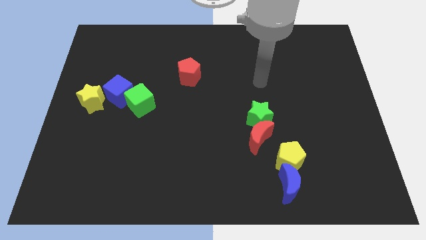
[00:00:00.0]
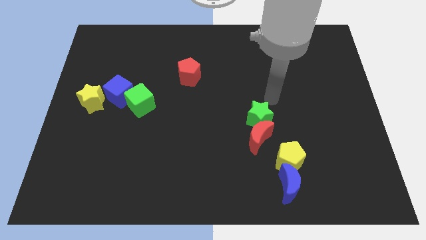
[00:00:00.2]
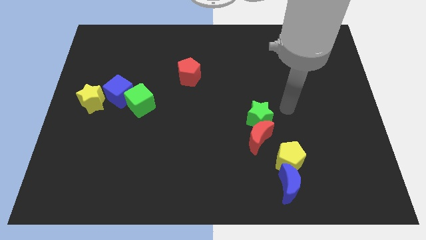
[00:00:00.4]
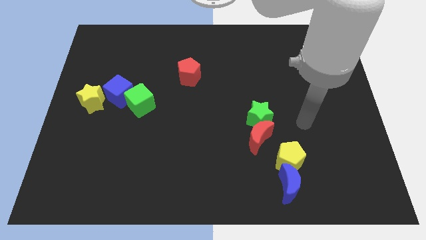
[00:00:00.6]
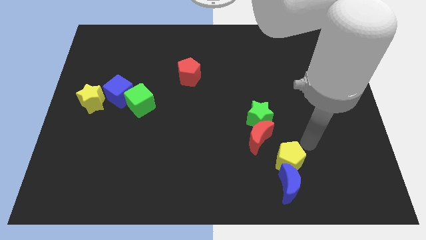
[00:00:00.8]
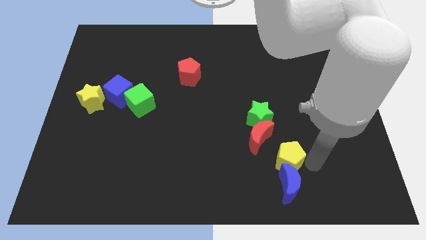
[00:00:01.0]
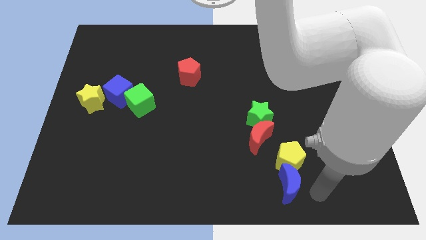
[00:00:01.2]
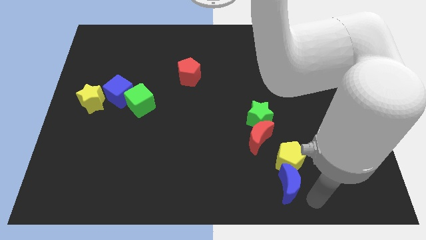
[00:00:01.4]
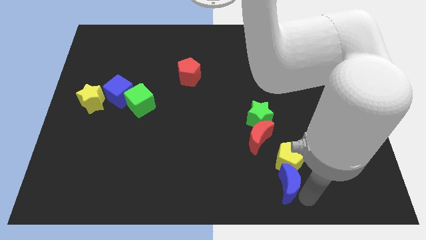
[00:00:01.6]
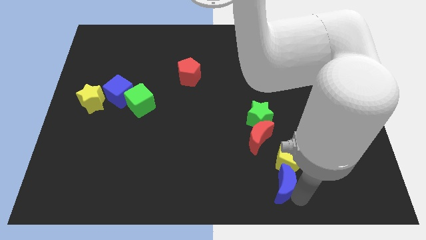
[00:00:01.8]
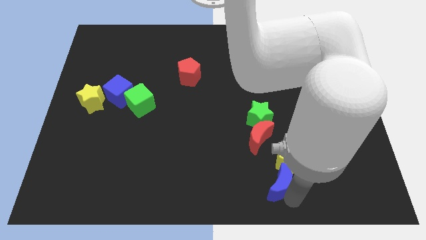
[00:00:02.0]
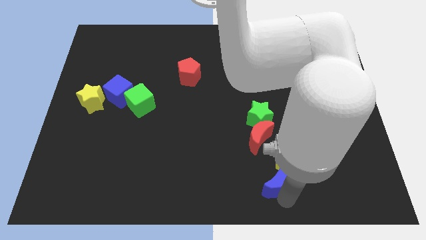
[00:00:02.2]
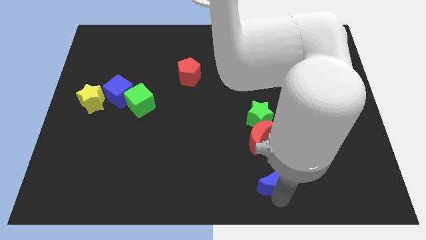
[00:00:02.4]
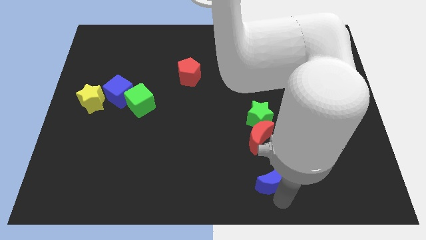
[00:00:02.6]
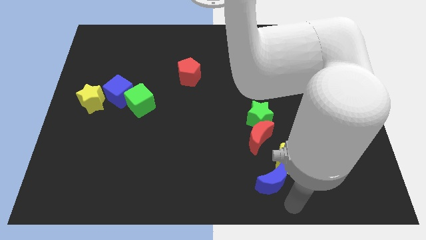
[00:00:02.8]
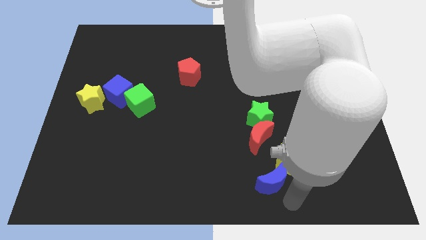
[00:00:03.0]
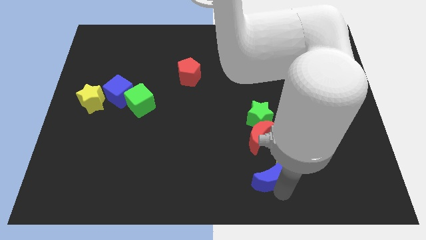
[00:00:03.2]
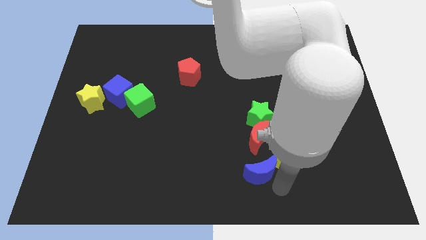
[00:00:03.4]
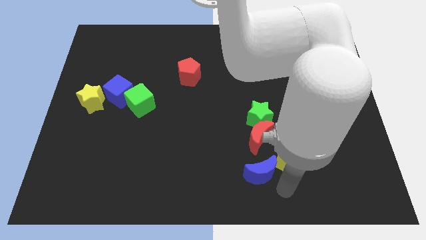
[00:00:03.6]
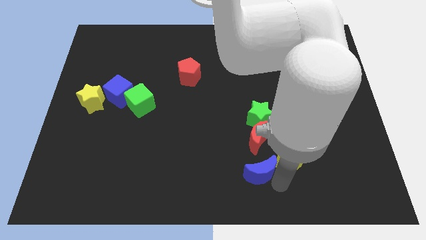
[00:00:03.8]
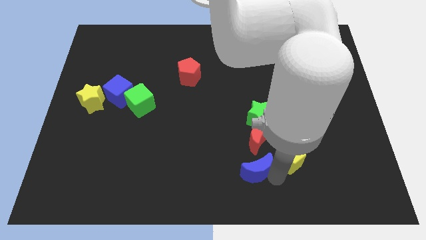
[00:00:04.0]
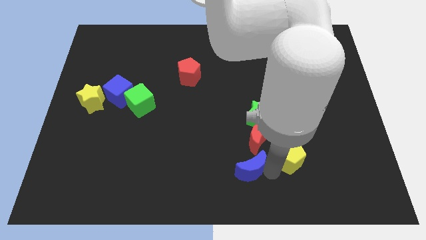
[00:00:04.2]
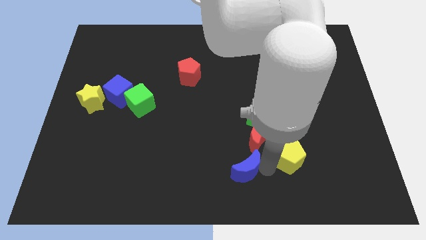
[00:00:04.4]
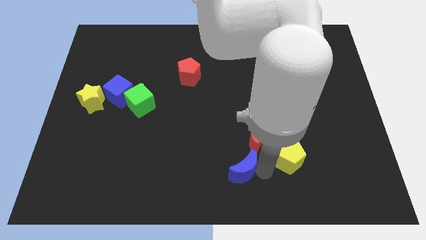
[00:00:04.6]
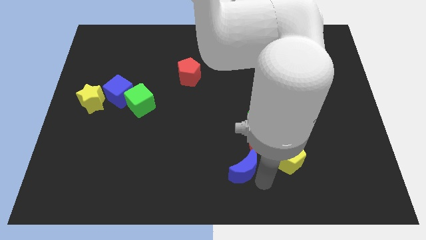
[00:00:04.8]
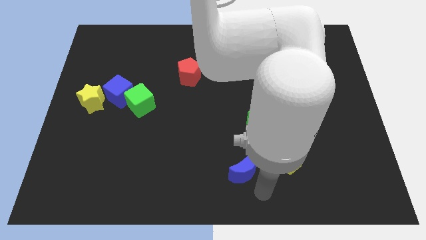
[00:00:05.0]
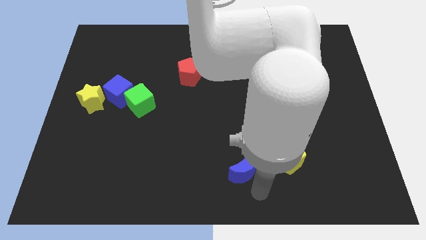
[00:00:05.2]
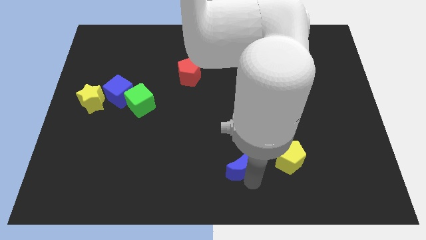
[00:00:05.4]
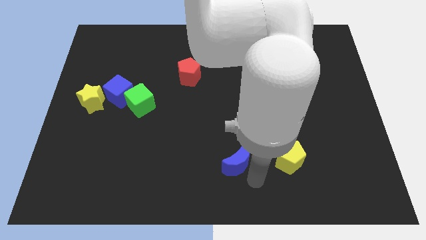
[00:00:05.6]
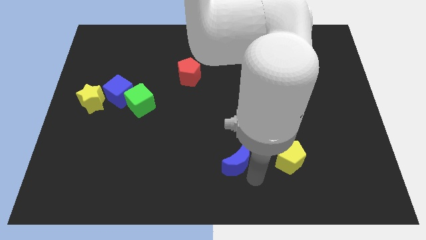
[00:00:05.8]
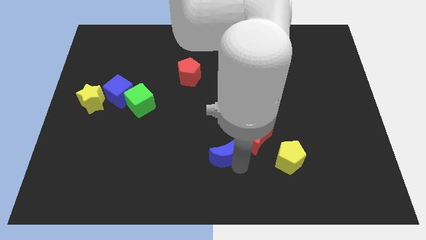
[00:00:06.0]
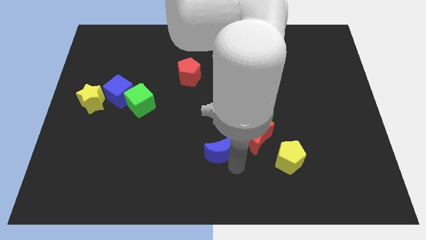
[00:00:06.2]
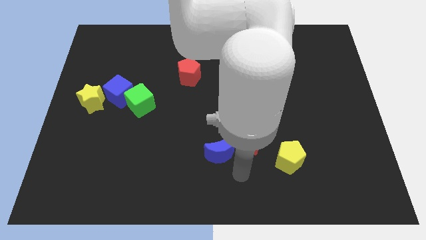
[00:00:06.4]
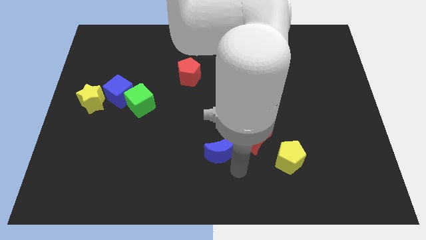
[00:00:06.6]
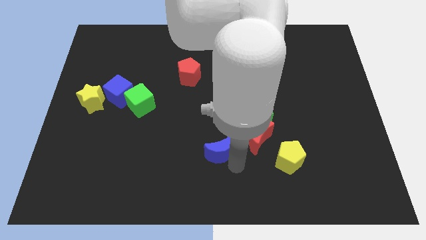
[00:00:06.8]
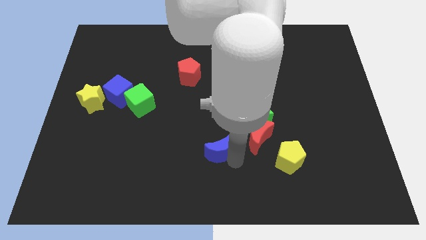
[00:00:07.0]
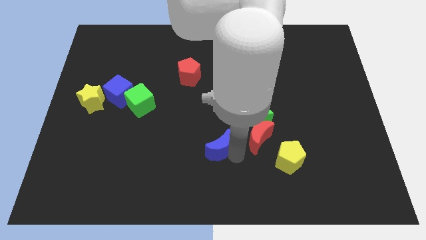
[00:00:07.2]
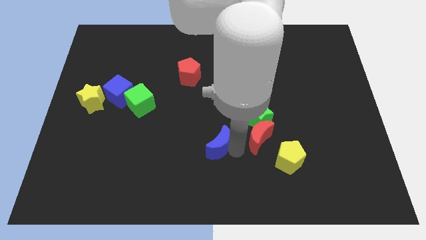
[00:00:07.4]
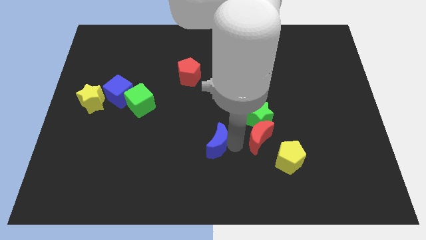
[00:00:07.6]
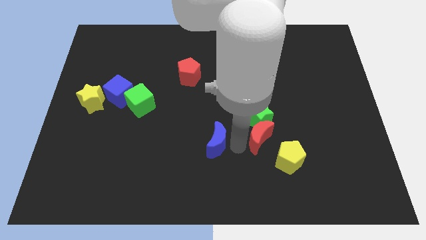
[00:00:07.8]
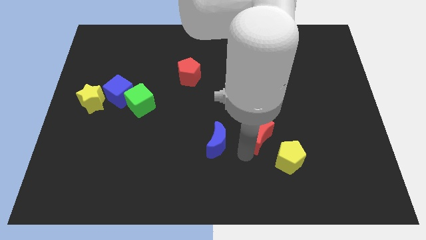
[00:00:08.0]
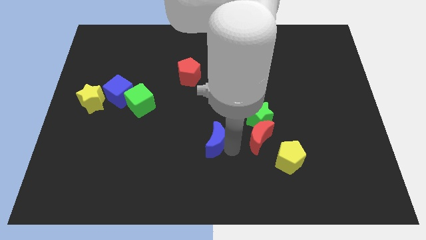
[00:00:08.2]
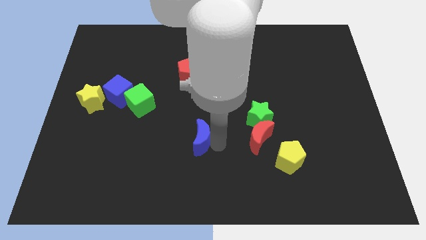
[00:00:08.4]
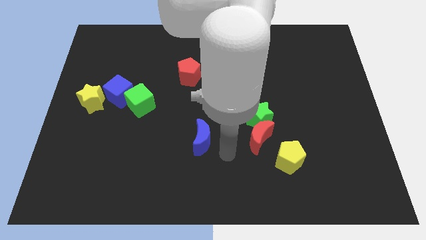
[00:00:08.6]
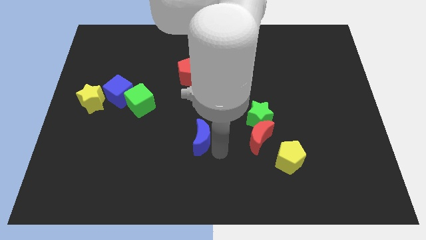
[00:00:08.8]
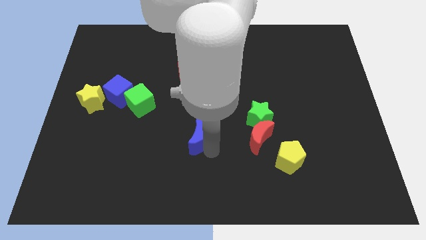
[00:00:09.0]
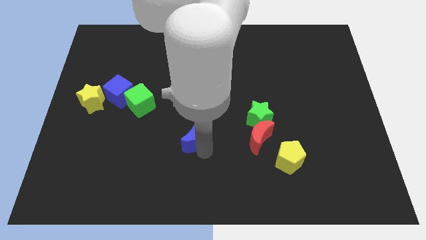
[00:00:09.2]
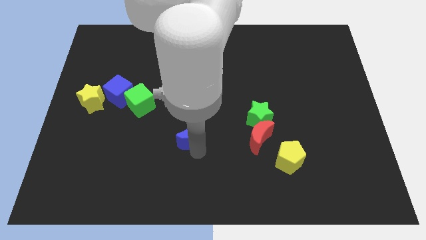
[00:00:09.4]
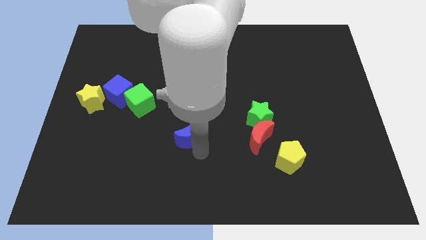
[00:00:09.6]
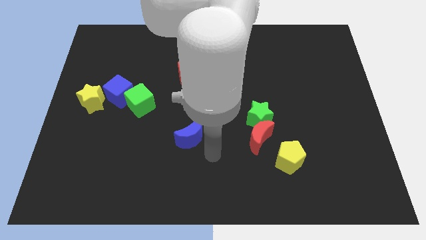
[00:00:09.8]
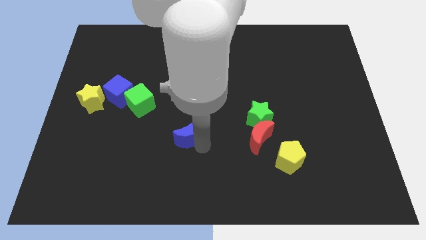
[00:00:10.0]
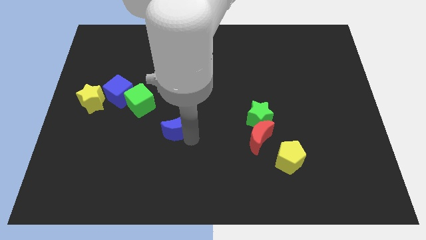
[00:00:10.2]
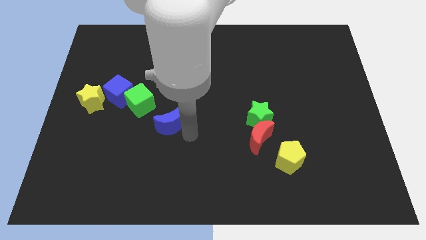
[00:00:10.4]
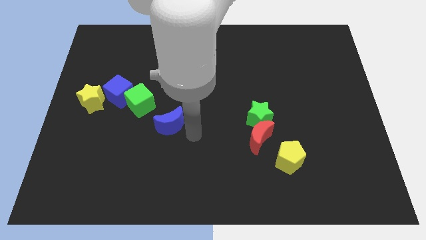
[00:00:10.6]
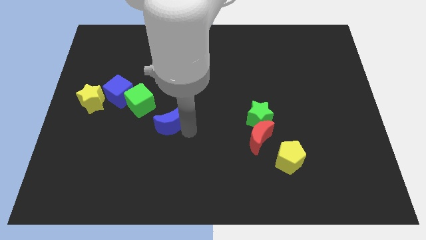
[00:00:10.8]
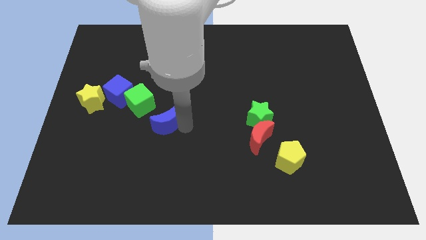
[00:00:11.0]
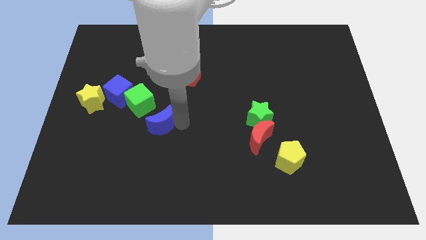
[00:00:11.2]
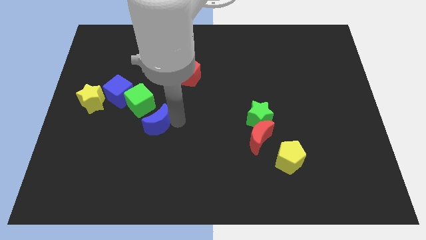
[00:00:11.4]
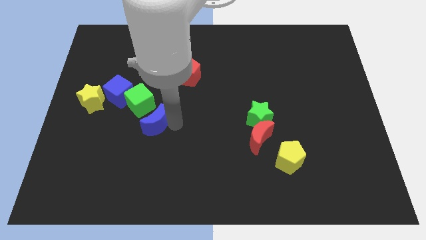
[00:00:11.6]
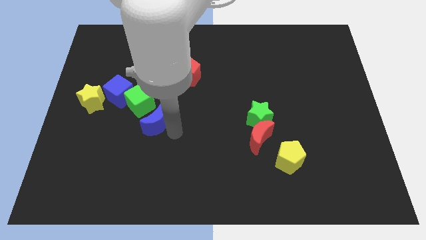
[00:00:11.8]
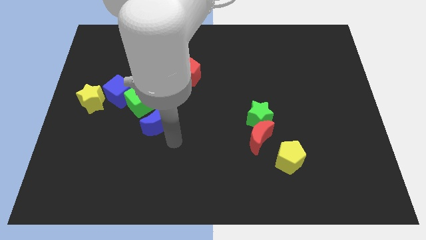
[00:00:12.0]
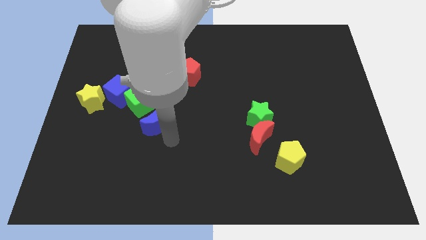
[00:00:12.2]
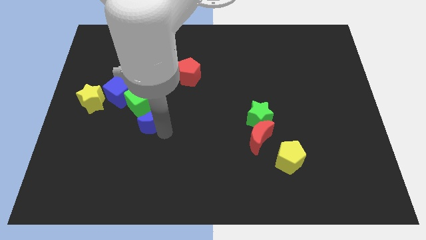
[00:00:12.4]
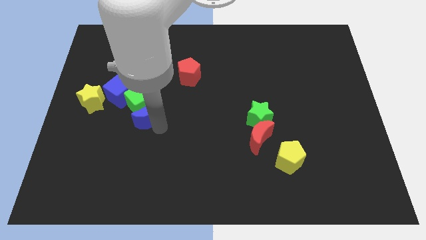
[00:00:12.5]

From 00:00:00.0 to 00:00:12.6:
push the blue moon close to the green cube

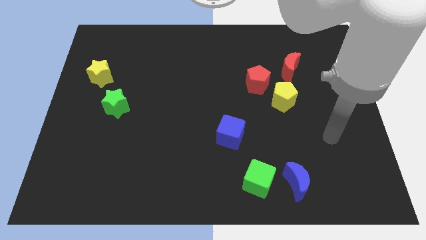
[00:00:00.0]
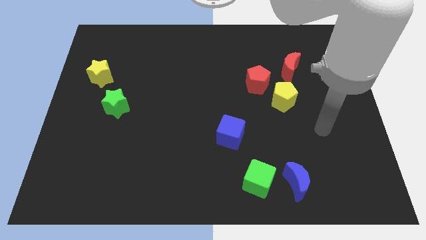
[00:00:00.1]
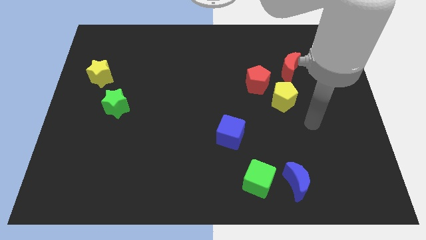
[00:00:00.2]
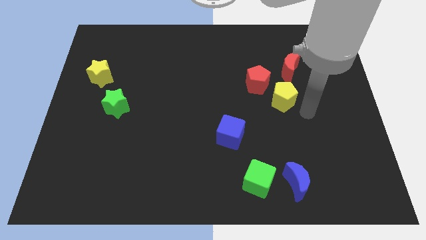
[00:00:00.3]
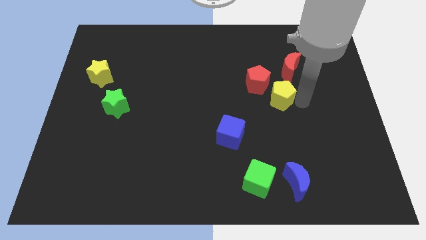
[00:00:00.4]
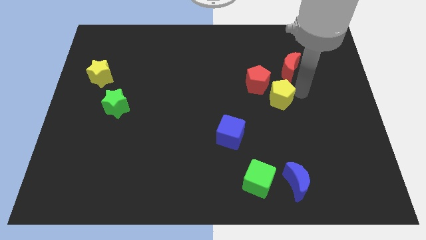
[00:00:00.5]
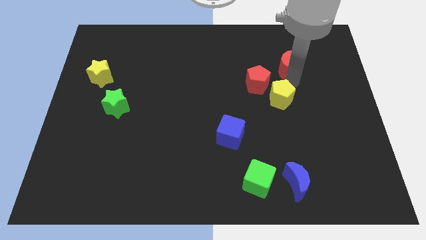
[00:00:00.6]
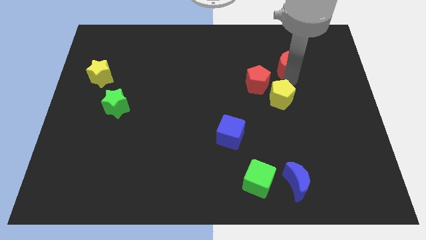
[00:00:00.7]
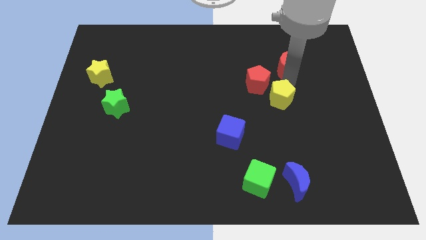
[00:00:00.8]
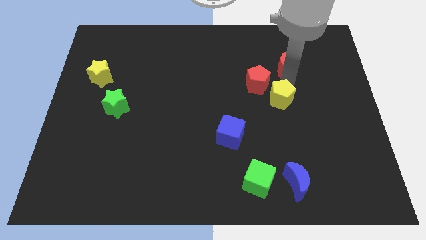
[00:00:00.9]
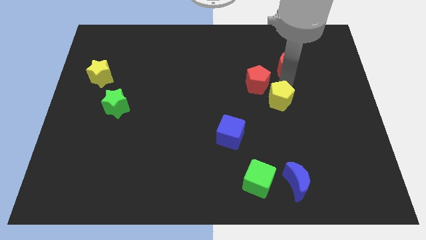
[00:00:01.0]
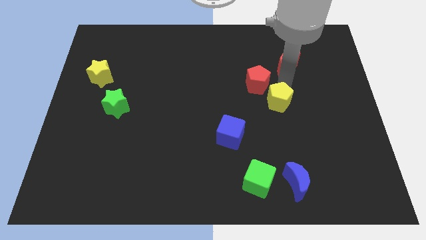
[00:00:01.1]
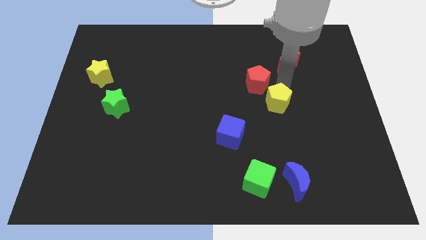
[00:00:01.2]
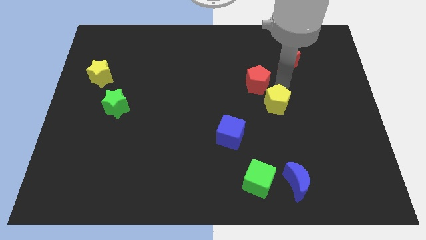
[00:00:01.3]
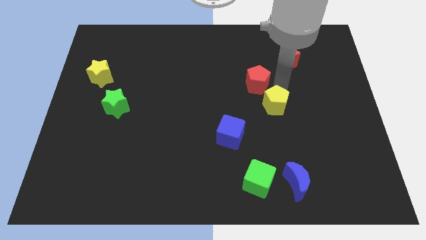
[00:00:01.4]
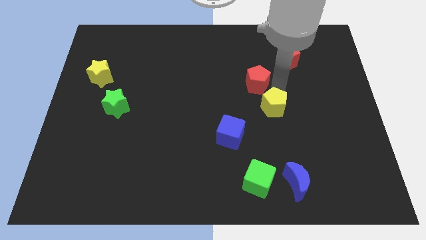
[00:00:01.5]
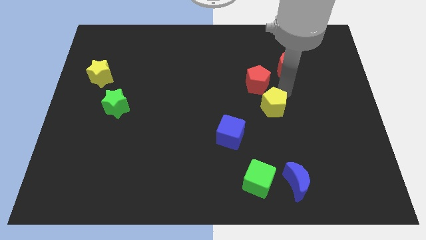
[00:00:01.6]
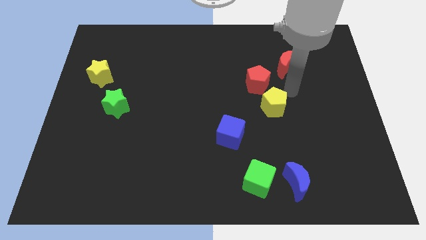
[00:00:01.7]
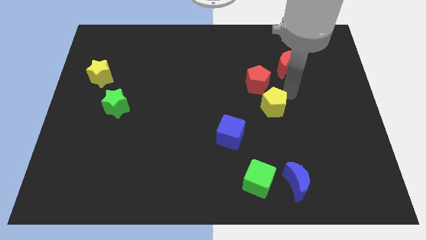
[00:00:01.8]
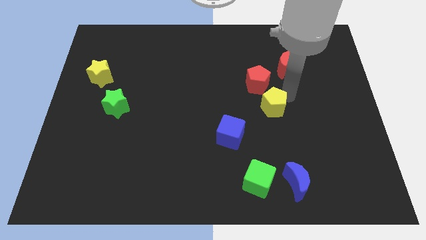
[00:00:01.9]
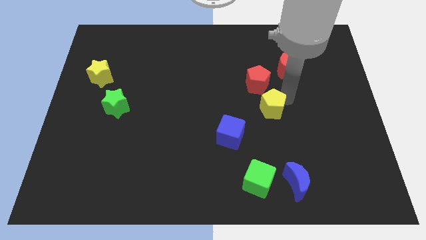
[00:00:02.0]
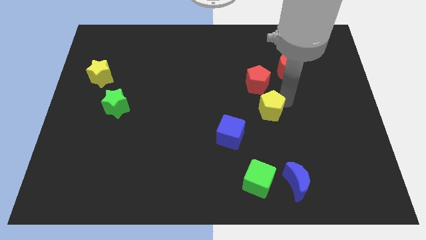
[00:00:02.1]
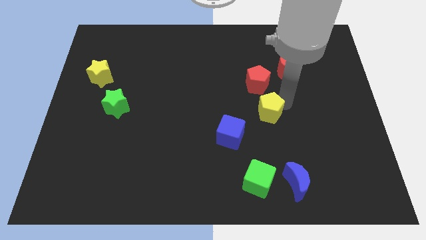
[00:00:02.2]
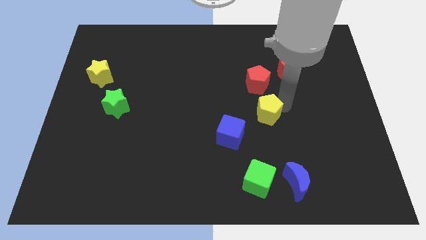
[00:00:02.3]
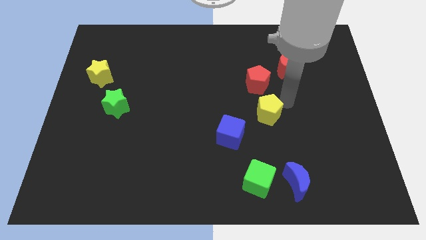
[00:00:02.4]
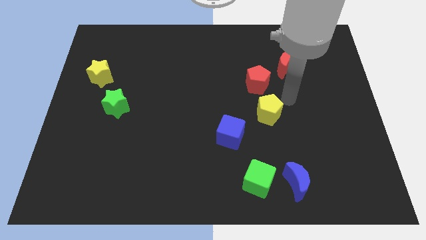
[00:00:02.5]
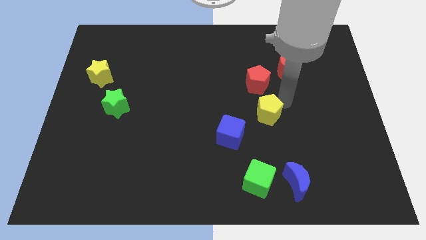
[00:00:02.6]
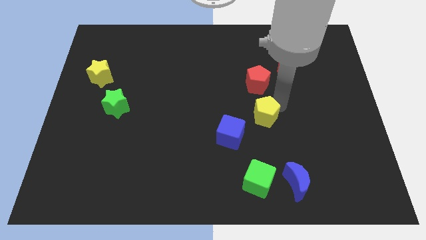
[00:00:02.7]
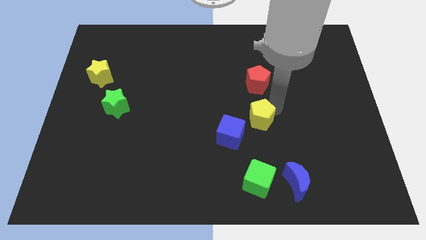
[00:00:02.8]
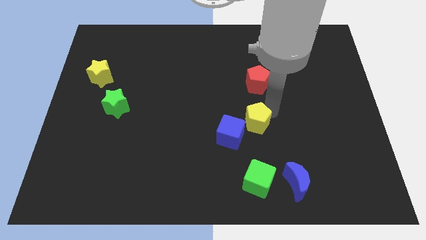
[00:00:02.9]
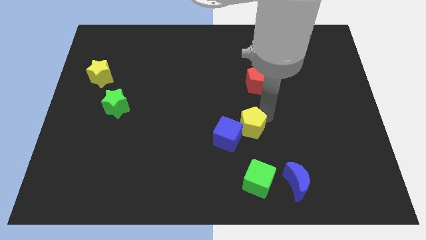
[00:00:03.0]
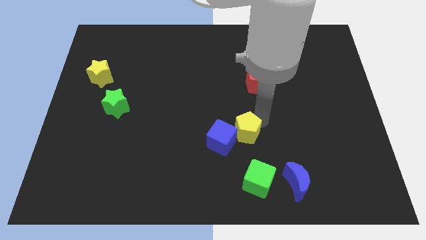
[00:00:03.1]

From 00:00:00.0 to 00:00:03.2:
slide the yellow pentagon next to the blue cube
